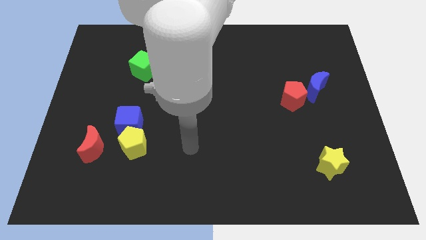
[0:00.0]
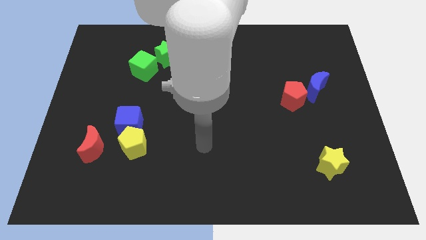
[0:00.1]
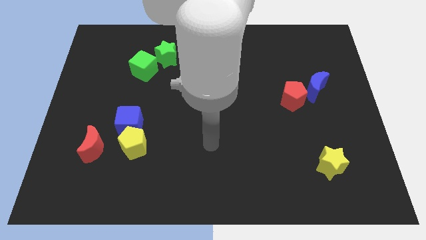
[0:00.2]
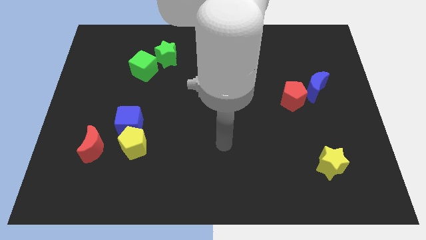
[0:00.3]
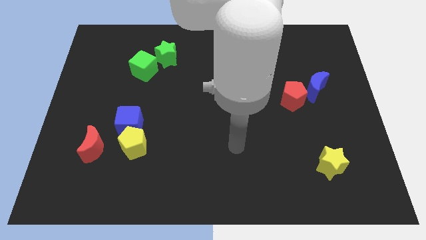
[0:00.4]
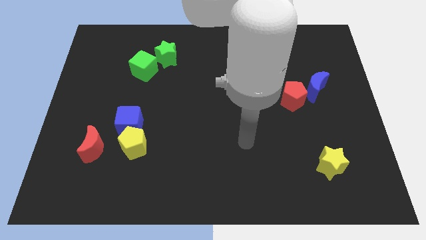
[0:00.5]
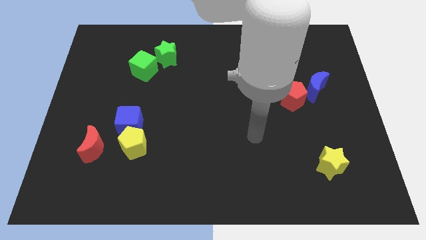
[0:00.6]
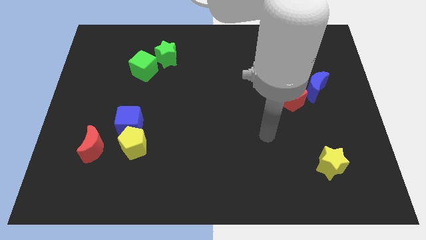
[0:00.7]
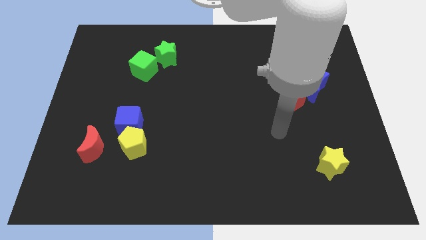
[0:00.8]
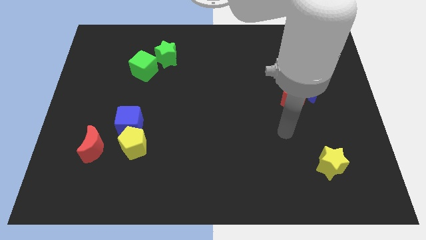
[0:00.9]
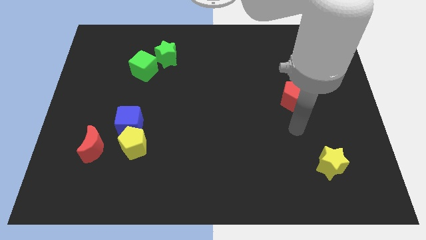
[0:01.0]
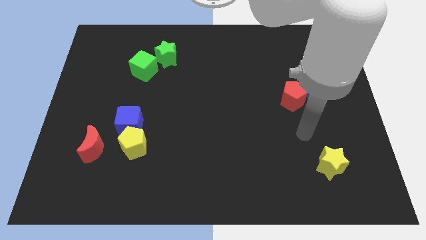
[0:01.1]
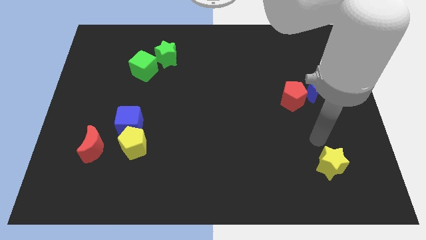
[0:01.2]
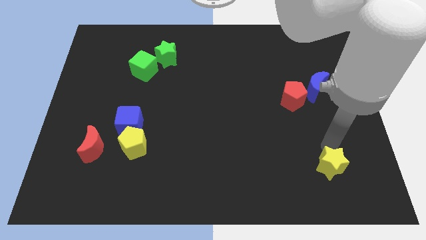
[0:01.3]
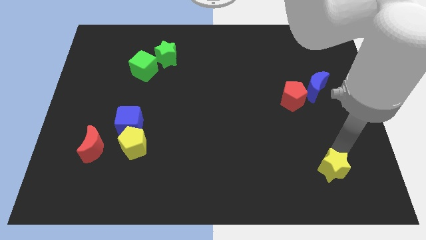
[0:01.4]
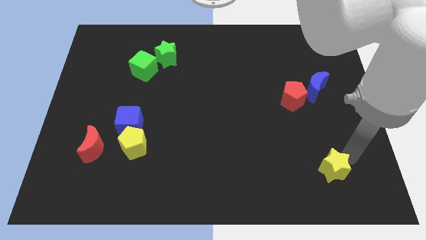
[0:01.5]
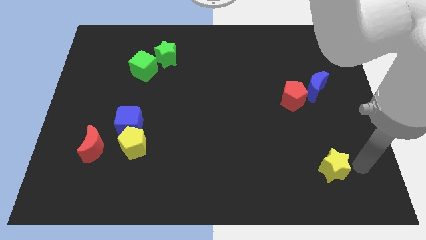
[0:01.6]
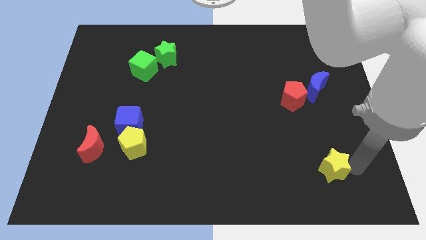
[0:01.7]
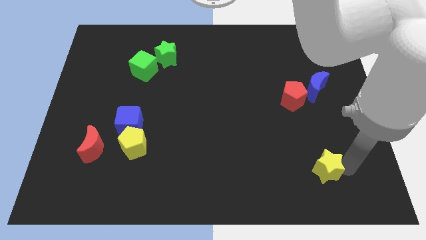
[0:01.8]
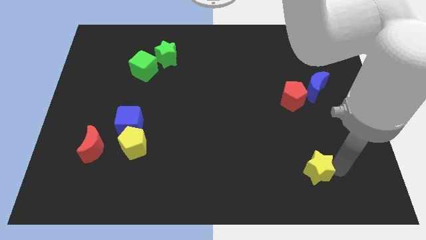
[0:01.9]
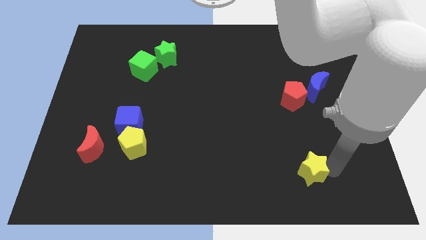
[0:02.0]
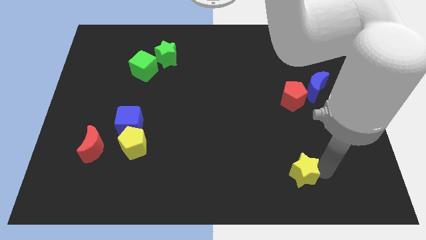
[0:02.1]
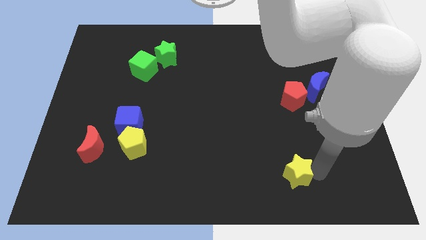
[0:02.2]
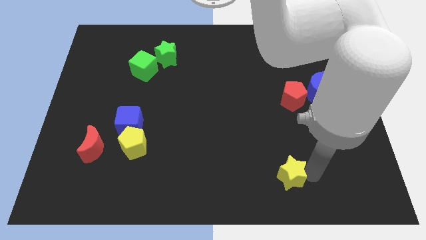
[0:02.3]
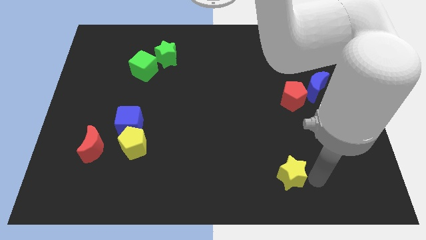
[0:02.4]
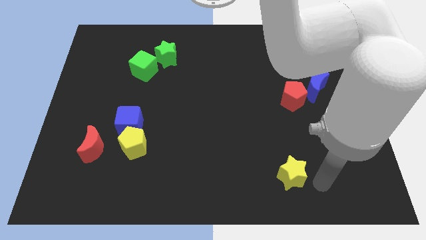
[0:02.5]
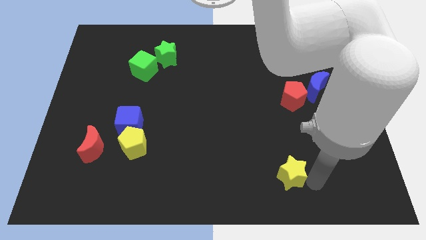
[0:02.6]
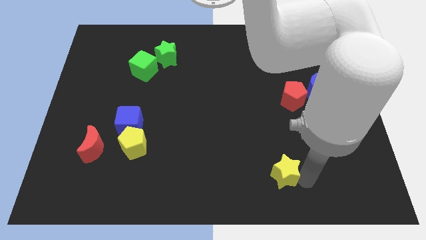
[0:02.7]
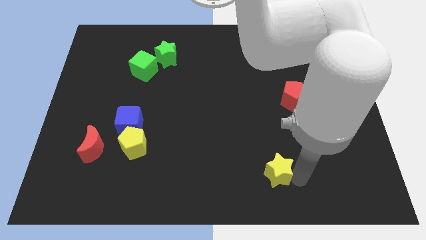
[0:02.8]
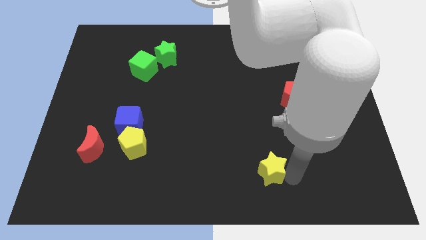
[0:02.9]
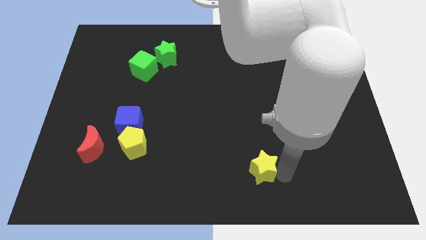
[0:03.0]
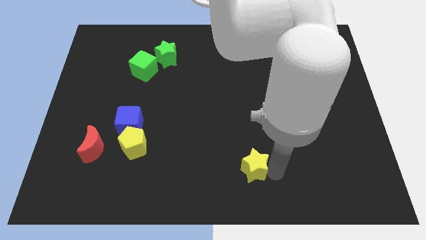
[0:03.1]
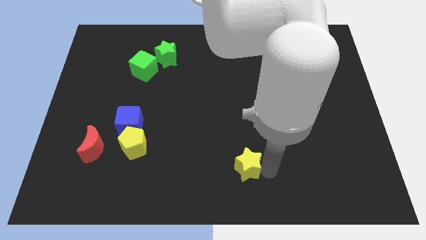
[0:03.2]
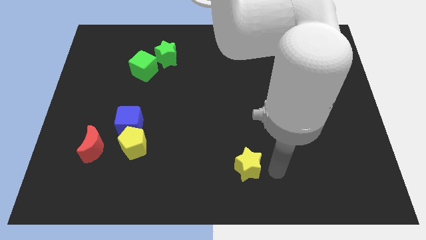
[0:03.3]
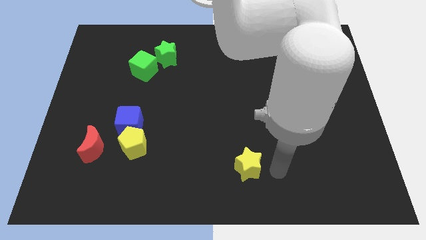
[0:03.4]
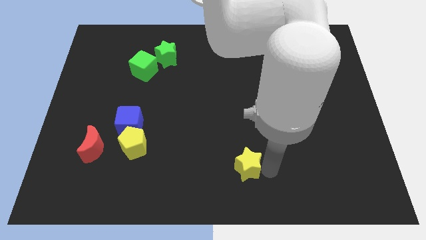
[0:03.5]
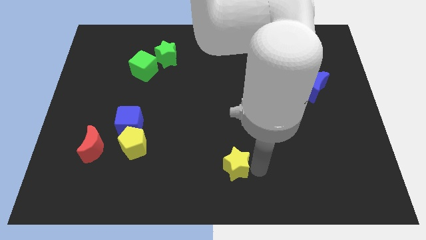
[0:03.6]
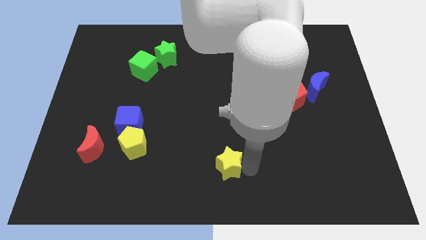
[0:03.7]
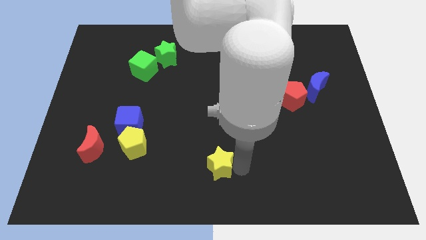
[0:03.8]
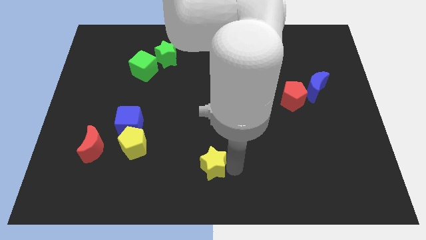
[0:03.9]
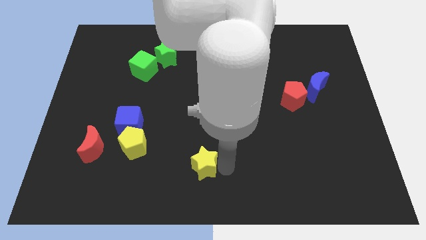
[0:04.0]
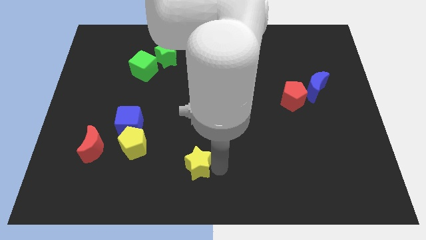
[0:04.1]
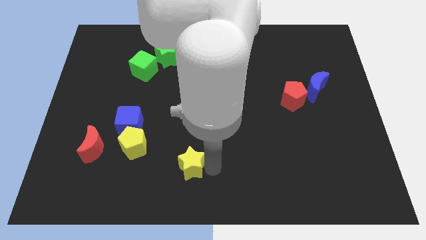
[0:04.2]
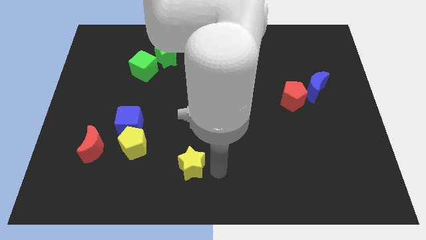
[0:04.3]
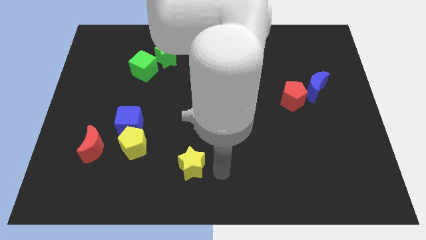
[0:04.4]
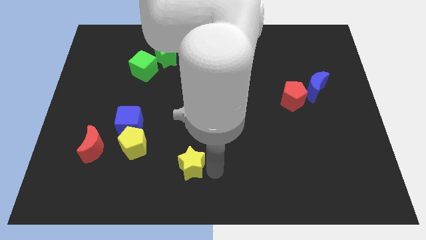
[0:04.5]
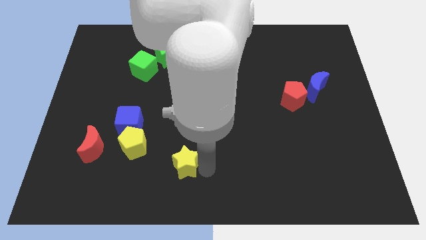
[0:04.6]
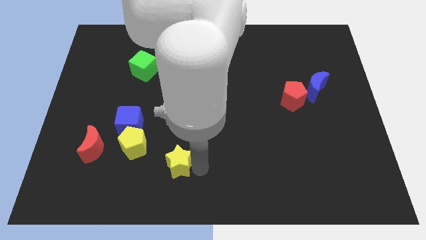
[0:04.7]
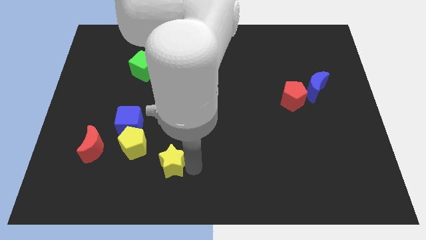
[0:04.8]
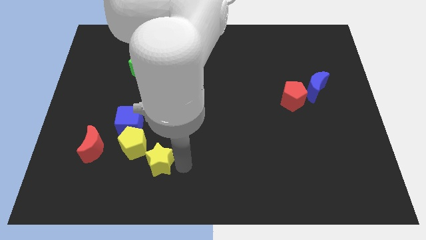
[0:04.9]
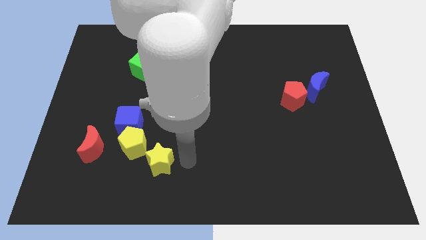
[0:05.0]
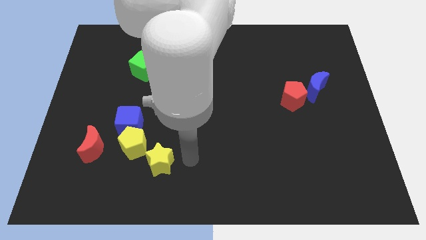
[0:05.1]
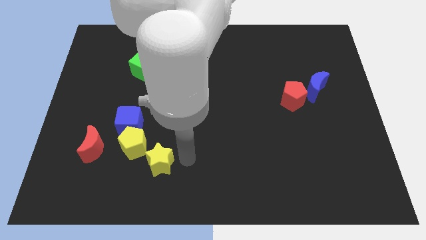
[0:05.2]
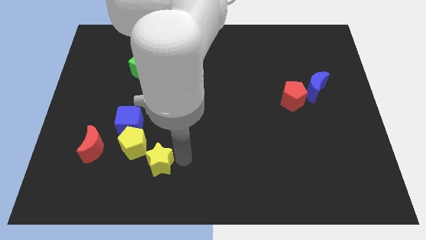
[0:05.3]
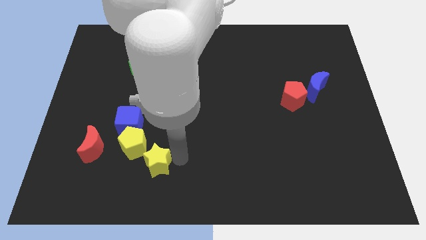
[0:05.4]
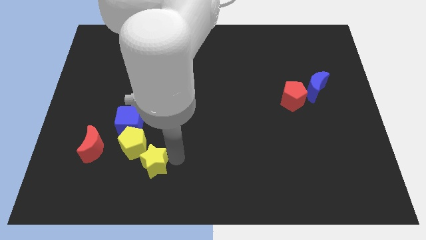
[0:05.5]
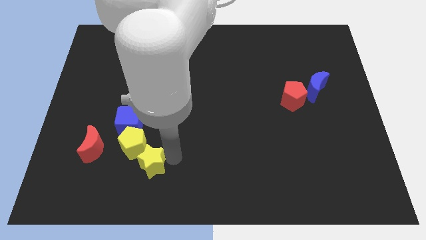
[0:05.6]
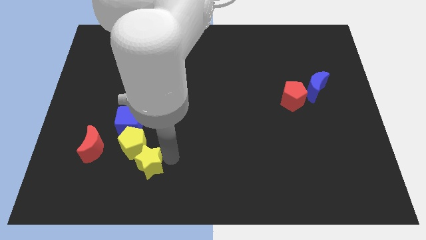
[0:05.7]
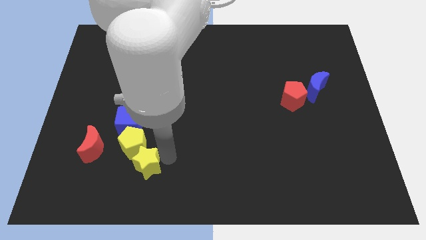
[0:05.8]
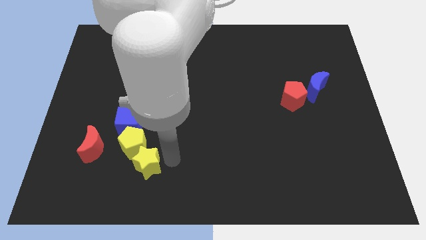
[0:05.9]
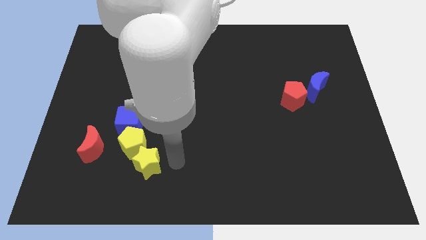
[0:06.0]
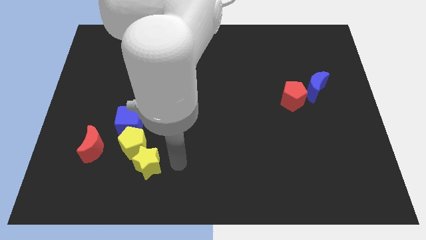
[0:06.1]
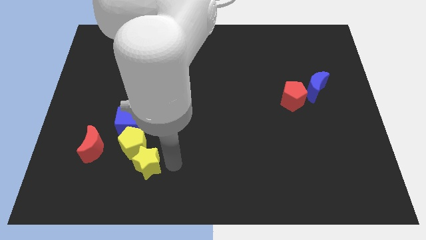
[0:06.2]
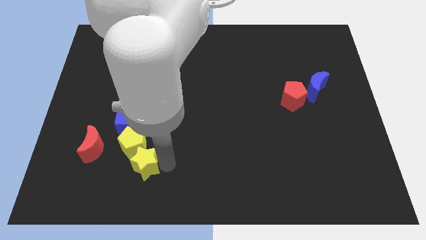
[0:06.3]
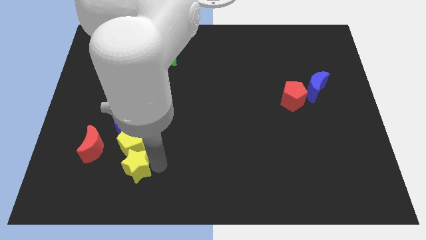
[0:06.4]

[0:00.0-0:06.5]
move the yellow star diagonally down and to the right of the red moon
